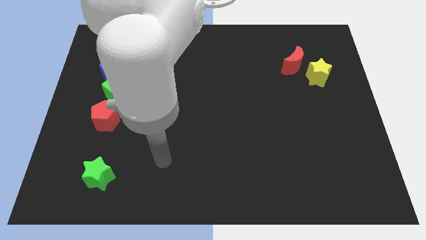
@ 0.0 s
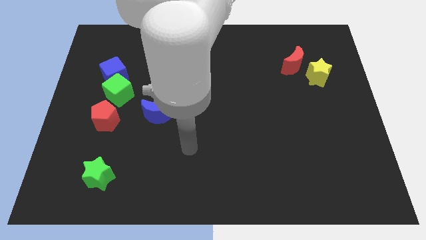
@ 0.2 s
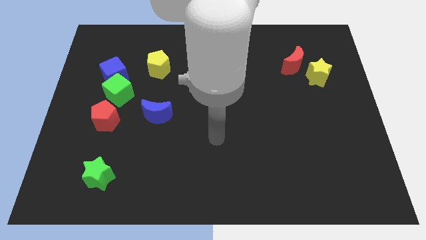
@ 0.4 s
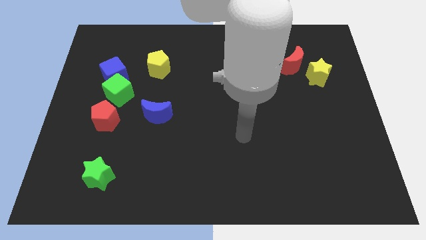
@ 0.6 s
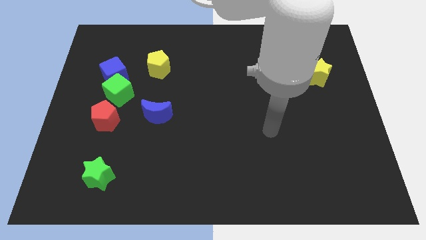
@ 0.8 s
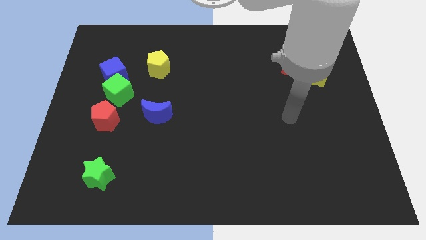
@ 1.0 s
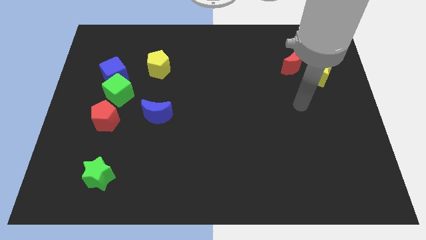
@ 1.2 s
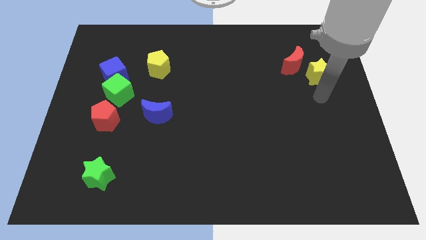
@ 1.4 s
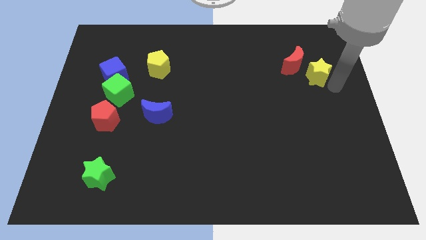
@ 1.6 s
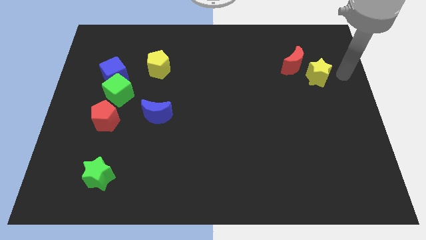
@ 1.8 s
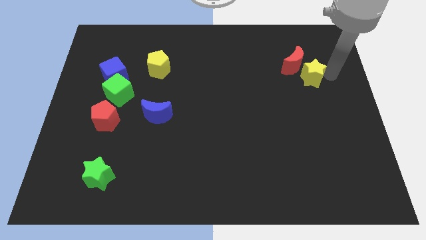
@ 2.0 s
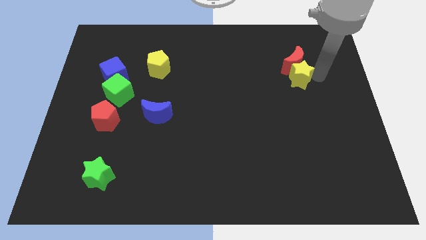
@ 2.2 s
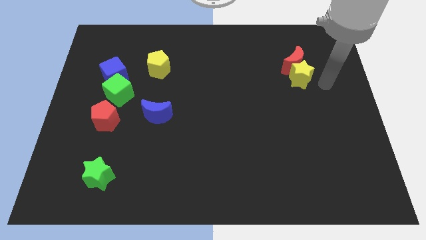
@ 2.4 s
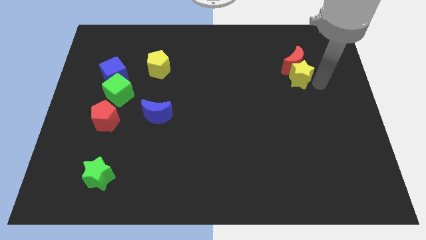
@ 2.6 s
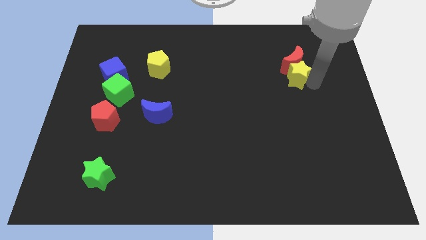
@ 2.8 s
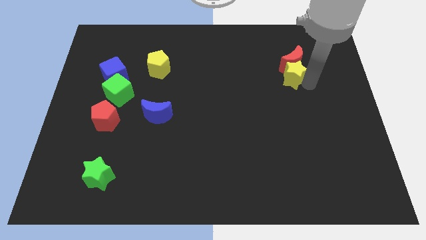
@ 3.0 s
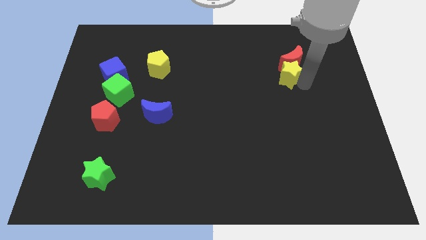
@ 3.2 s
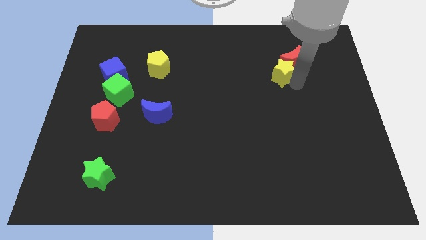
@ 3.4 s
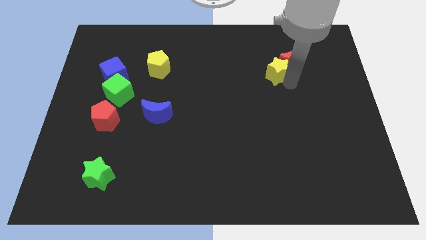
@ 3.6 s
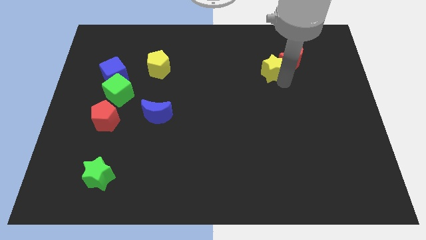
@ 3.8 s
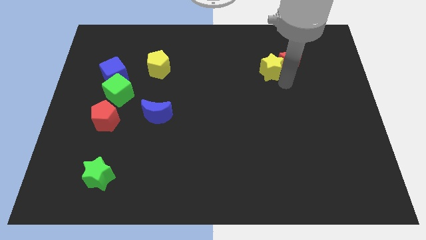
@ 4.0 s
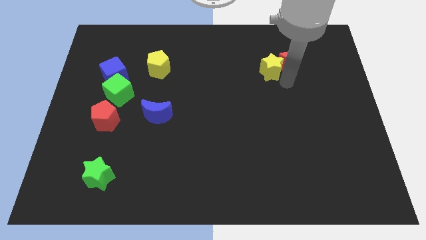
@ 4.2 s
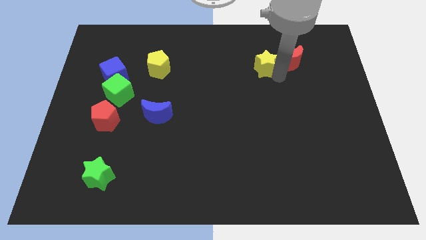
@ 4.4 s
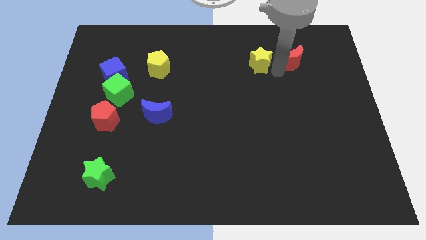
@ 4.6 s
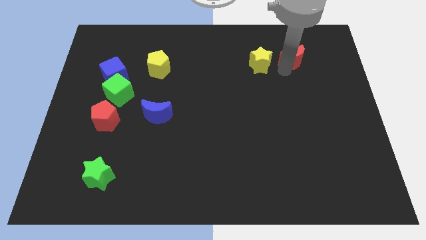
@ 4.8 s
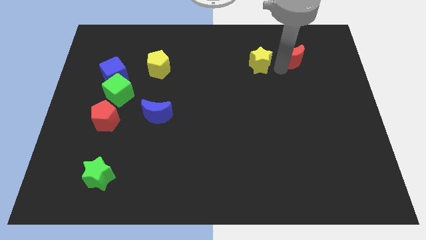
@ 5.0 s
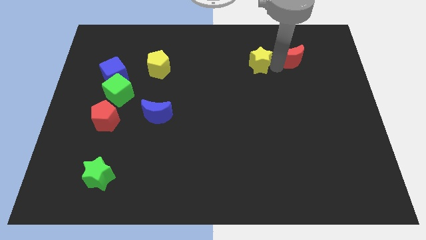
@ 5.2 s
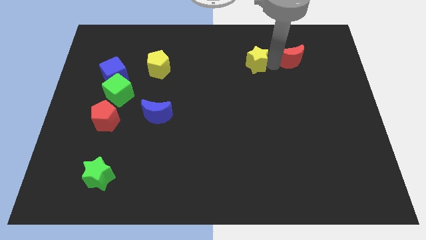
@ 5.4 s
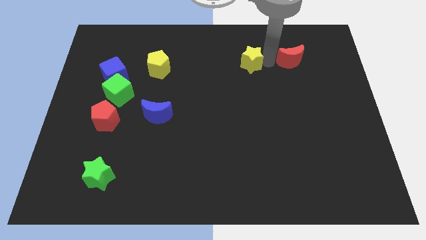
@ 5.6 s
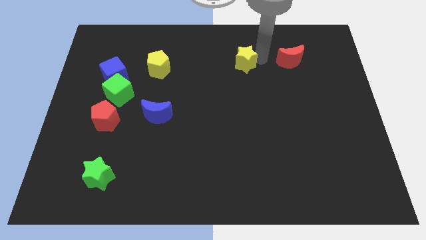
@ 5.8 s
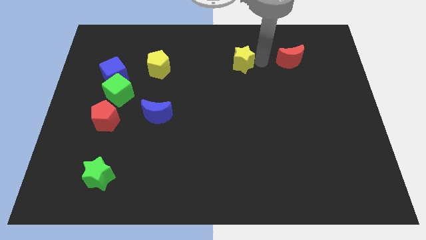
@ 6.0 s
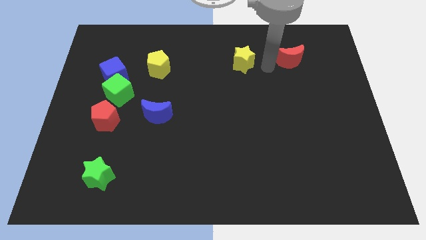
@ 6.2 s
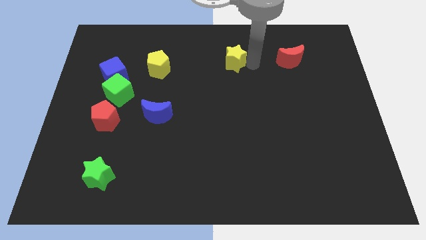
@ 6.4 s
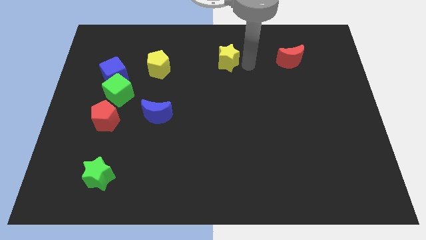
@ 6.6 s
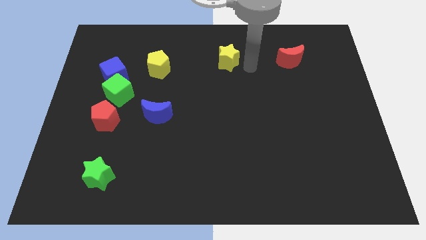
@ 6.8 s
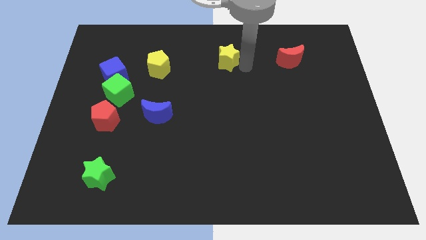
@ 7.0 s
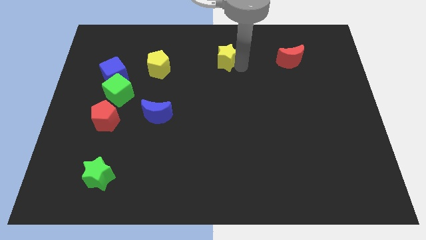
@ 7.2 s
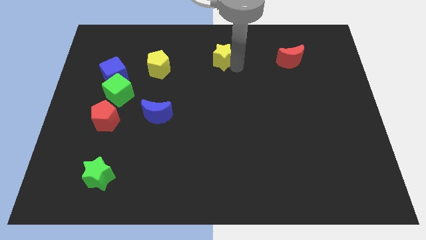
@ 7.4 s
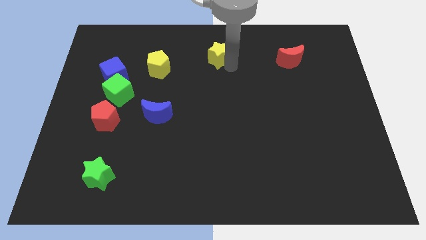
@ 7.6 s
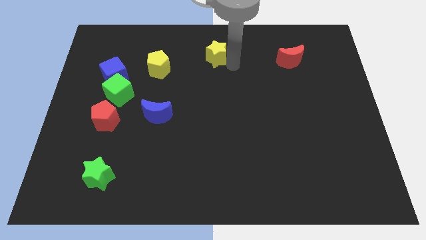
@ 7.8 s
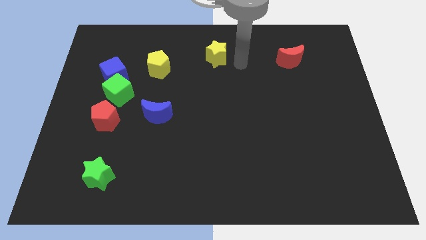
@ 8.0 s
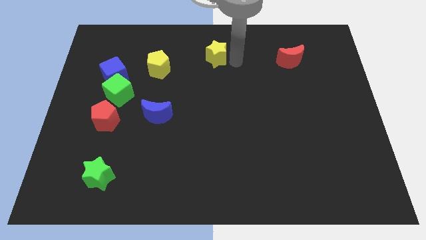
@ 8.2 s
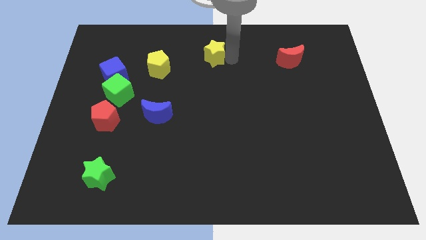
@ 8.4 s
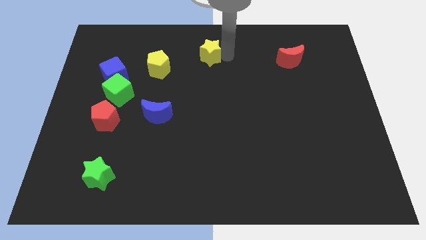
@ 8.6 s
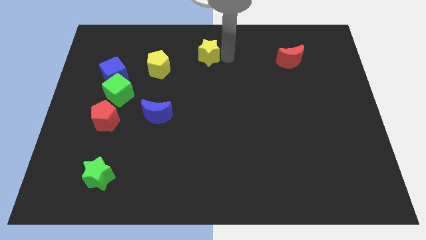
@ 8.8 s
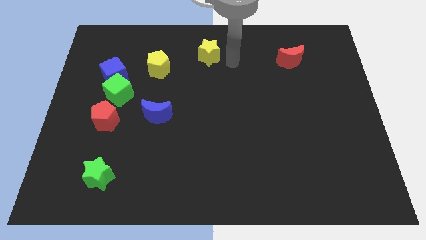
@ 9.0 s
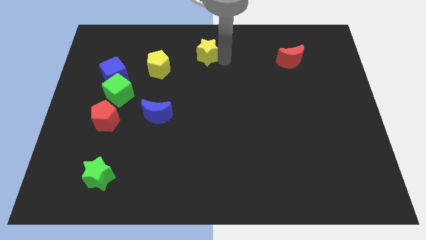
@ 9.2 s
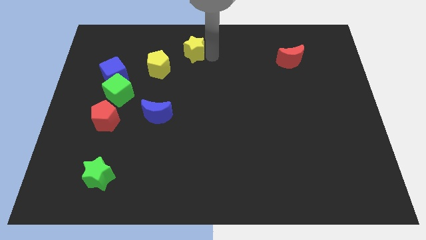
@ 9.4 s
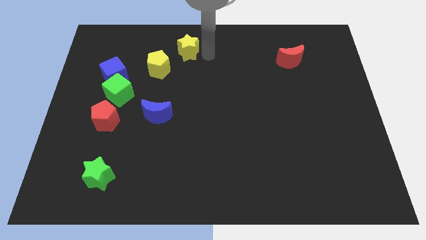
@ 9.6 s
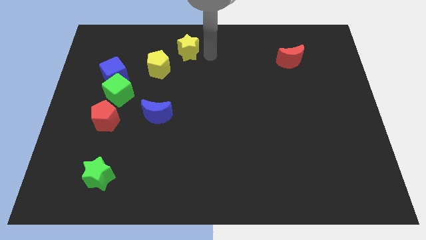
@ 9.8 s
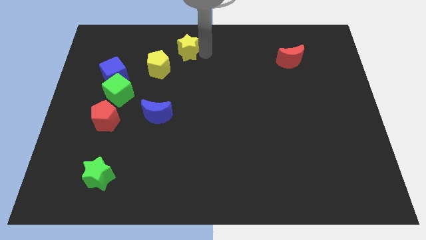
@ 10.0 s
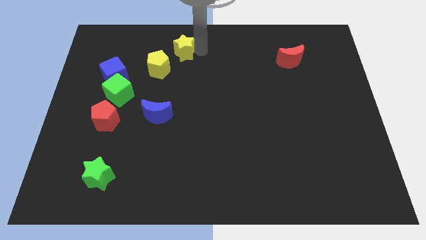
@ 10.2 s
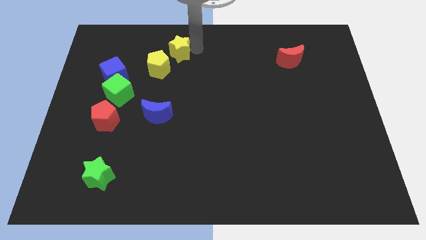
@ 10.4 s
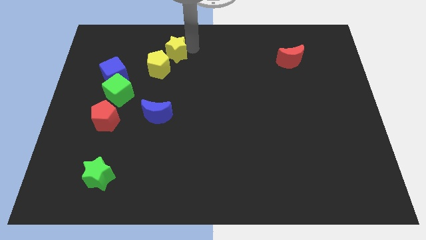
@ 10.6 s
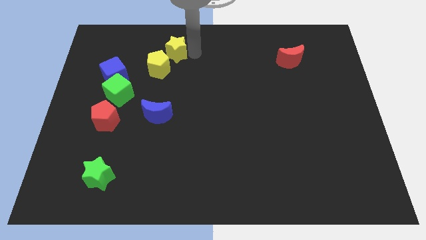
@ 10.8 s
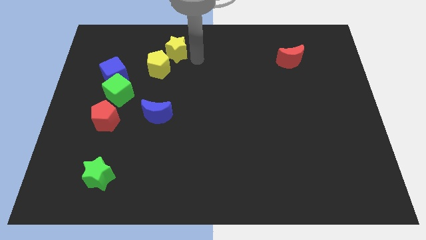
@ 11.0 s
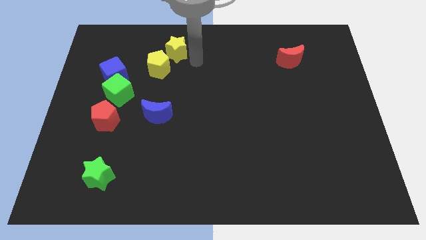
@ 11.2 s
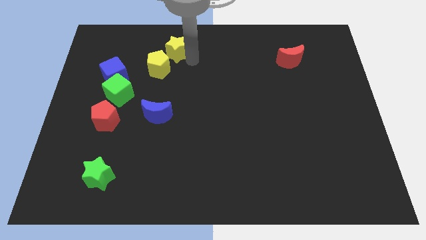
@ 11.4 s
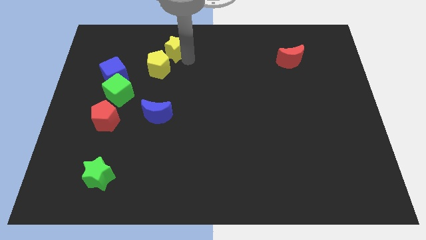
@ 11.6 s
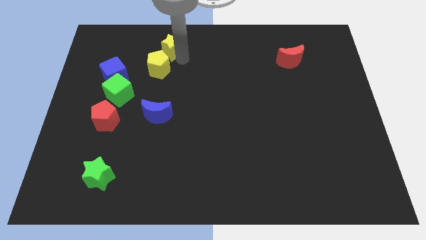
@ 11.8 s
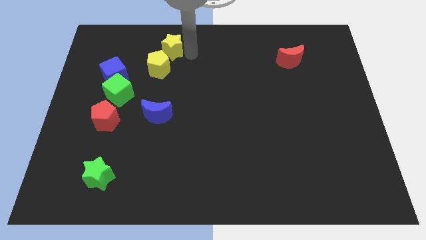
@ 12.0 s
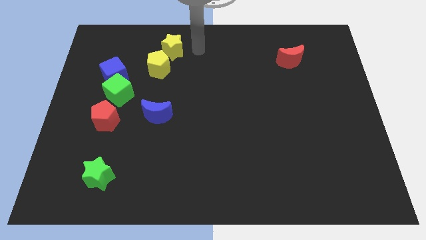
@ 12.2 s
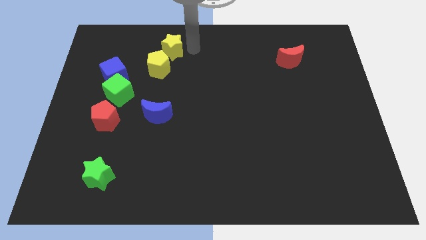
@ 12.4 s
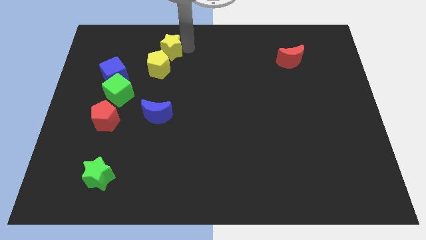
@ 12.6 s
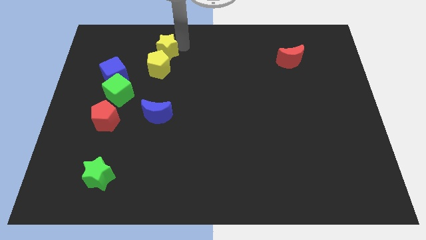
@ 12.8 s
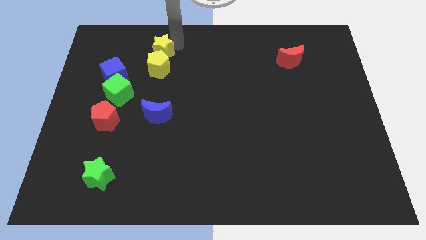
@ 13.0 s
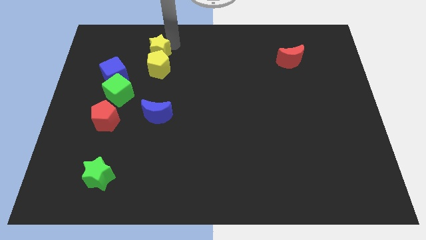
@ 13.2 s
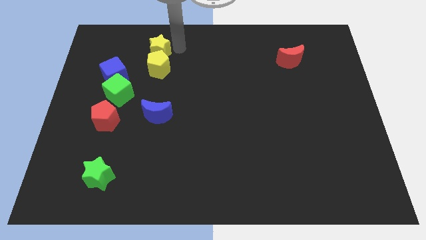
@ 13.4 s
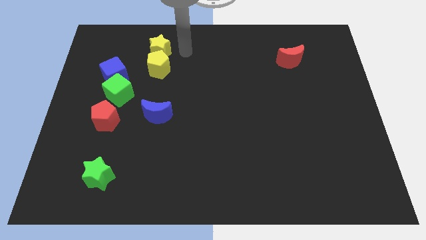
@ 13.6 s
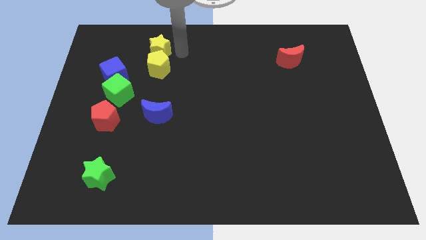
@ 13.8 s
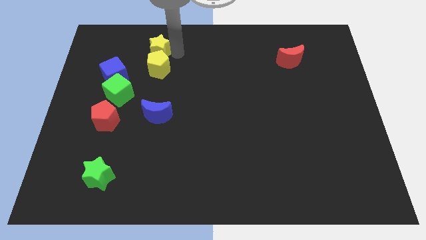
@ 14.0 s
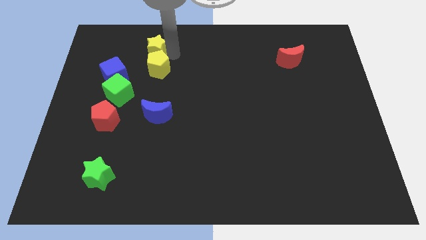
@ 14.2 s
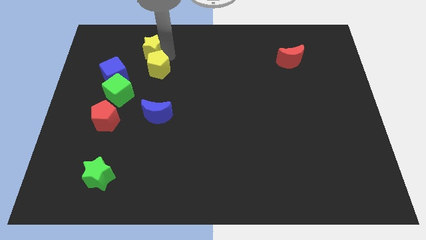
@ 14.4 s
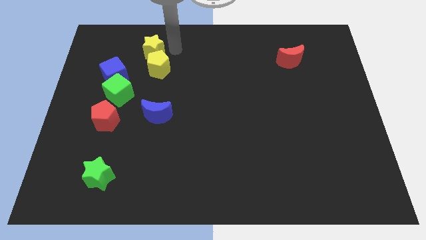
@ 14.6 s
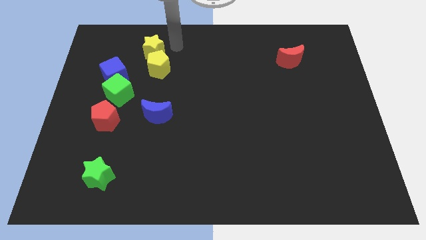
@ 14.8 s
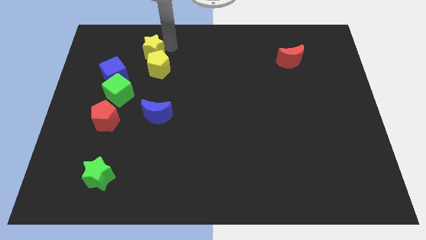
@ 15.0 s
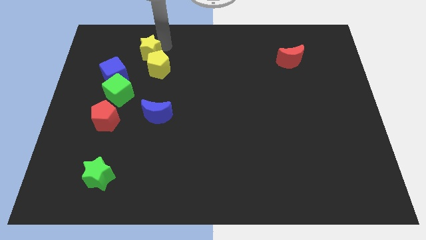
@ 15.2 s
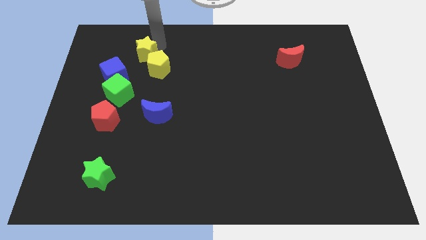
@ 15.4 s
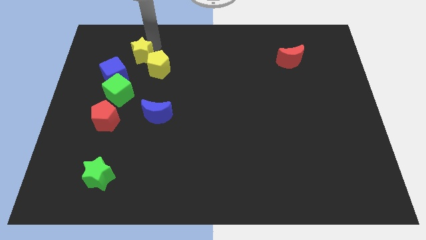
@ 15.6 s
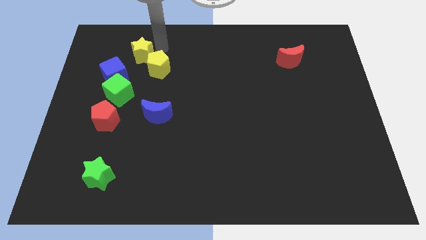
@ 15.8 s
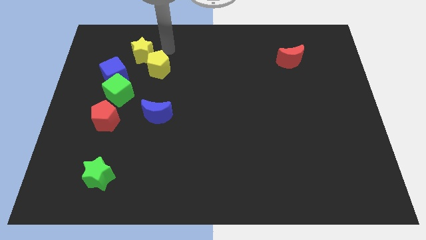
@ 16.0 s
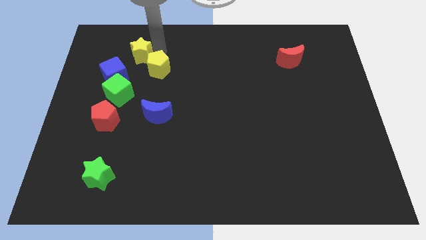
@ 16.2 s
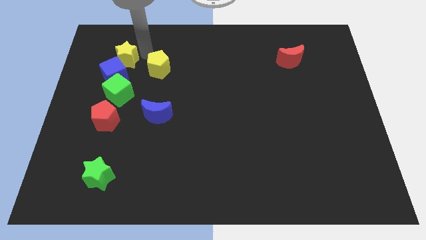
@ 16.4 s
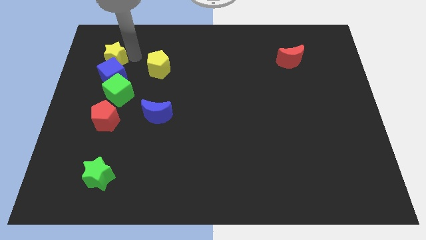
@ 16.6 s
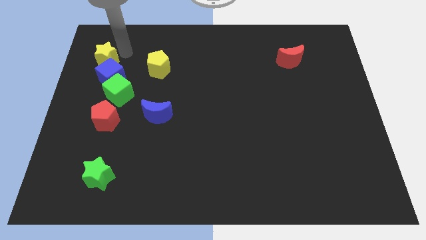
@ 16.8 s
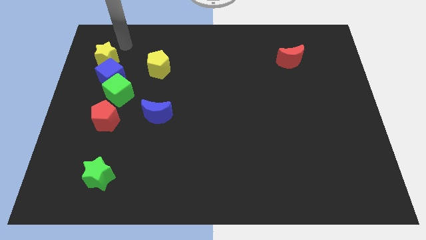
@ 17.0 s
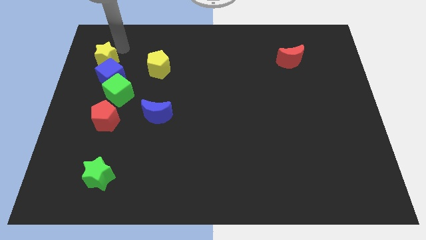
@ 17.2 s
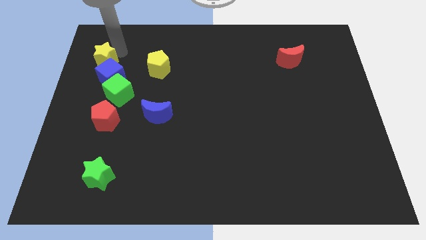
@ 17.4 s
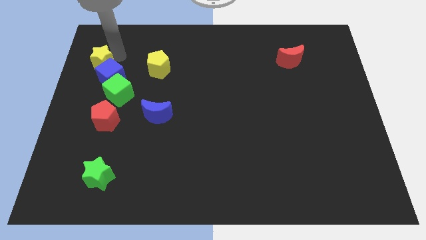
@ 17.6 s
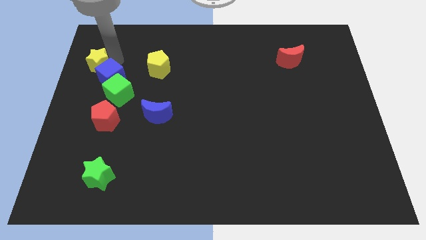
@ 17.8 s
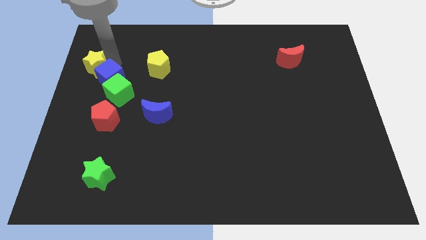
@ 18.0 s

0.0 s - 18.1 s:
put the yellow star to the center left
